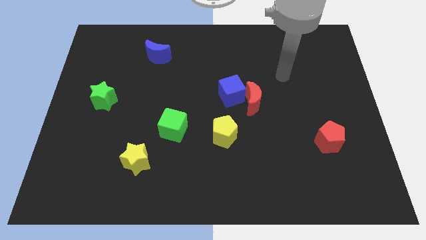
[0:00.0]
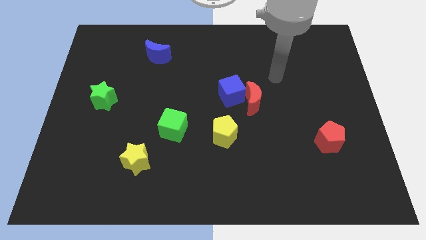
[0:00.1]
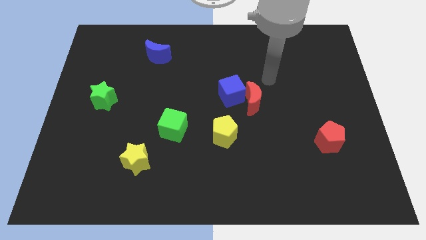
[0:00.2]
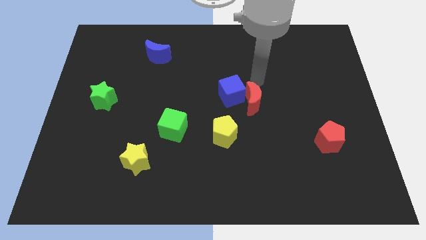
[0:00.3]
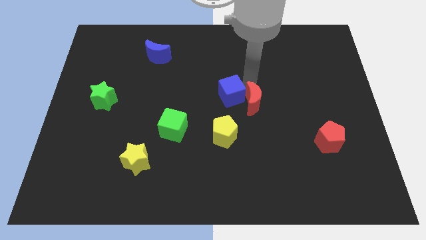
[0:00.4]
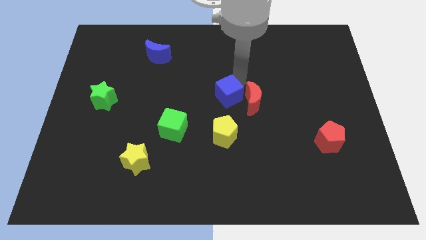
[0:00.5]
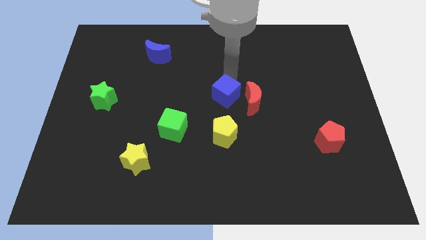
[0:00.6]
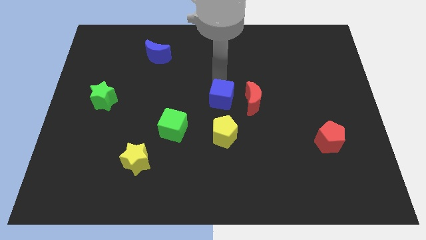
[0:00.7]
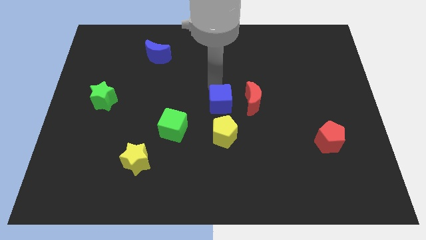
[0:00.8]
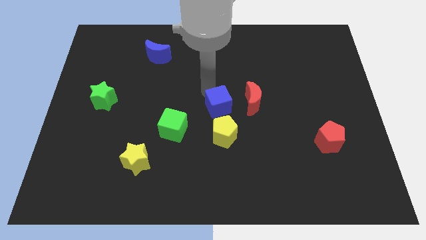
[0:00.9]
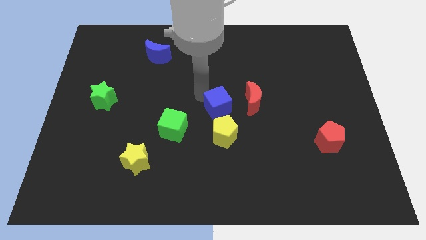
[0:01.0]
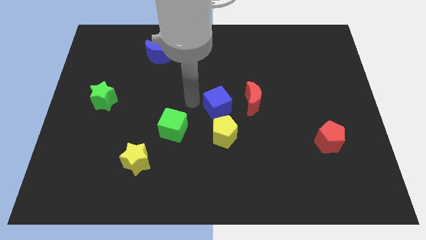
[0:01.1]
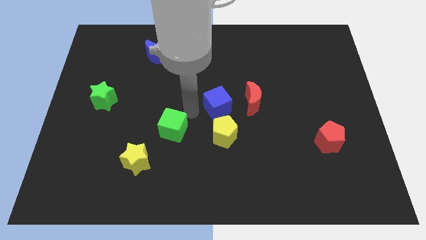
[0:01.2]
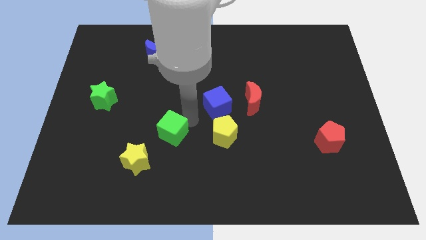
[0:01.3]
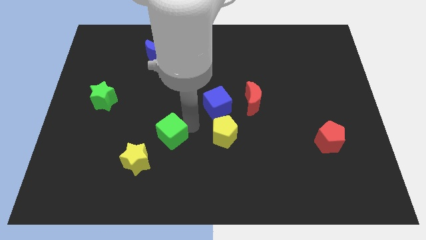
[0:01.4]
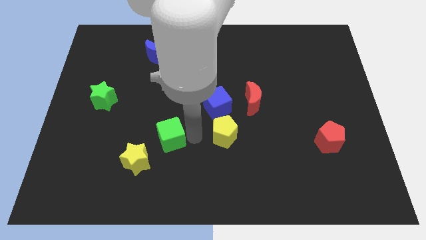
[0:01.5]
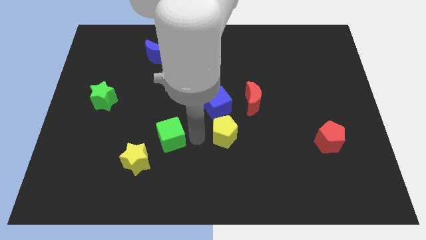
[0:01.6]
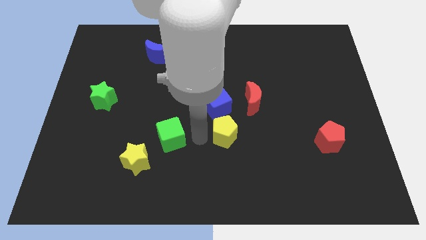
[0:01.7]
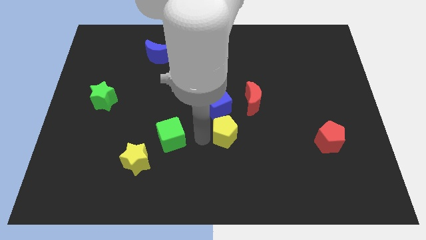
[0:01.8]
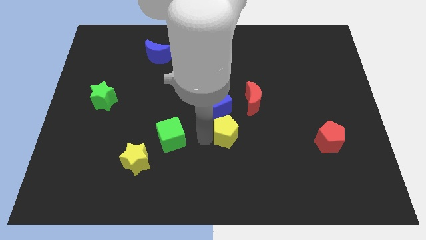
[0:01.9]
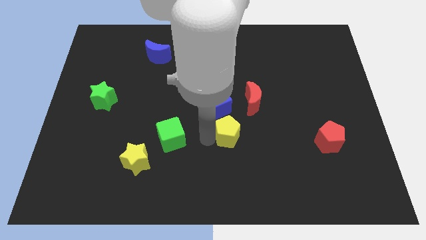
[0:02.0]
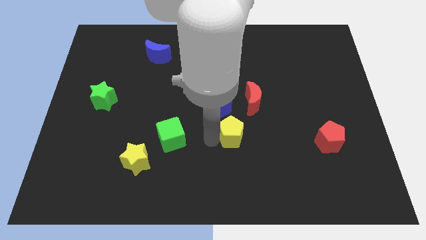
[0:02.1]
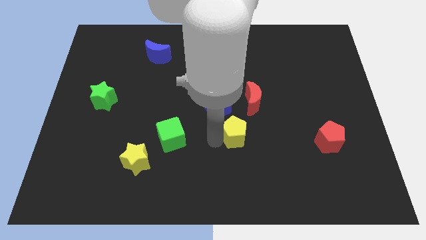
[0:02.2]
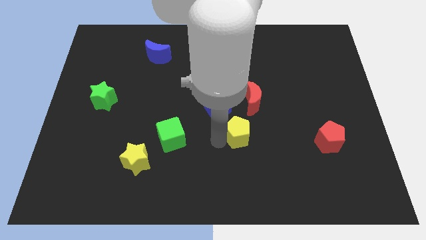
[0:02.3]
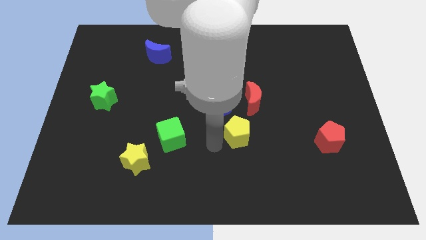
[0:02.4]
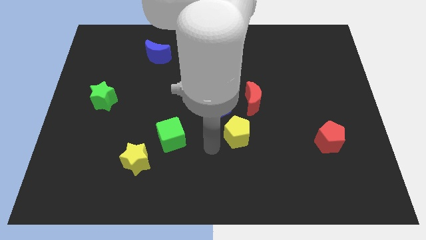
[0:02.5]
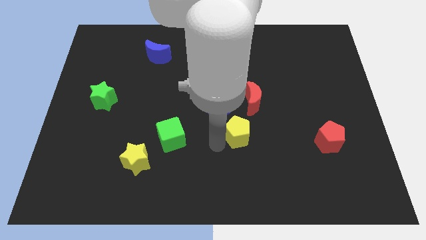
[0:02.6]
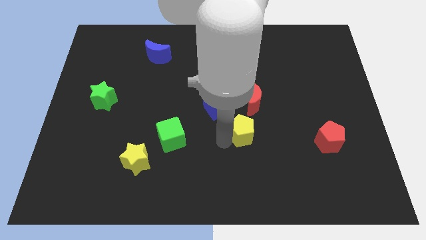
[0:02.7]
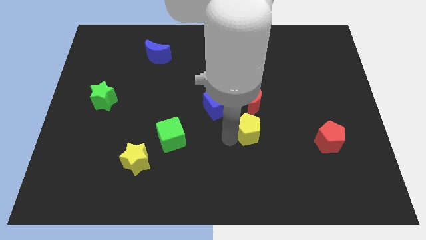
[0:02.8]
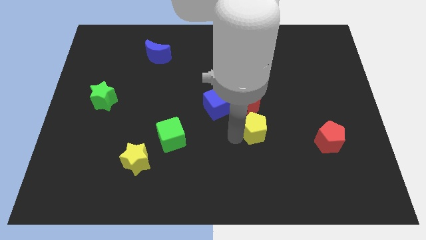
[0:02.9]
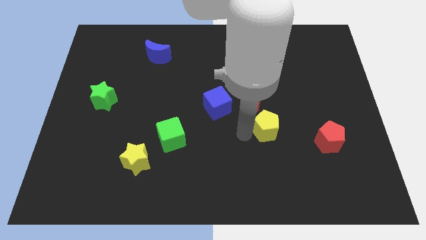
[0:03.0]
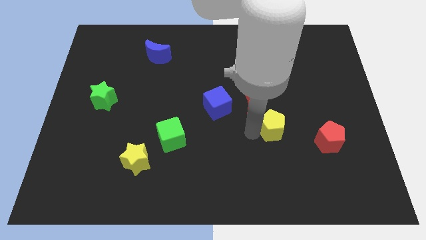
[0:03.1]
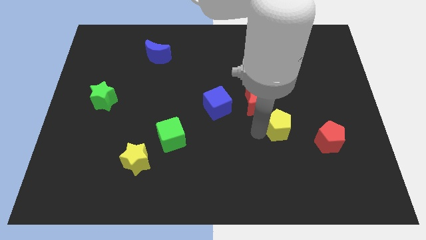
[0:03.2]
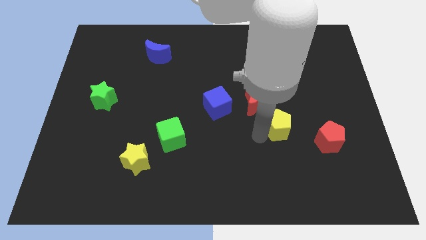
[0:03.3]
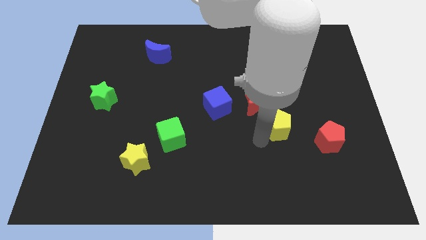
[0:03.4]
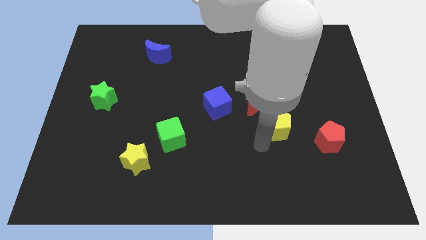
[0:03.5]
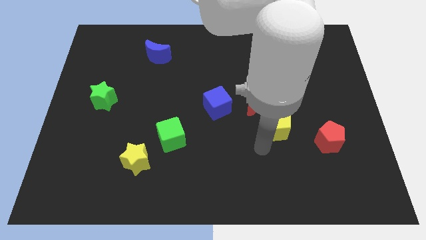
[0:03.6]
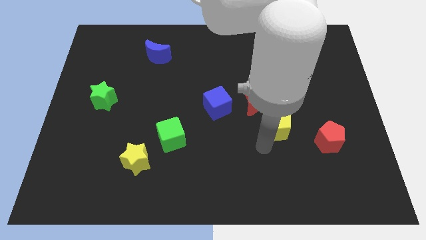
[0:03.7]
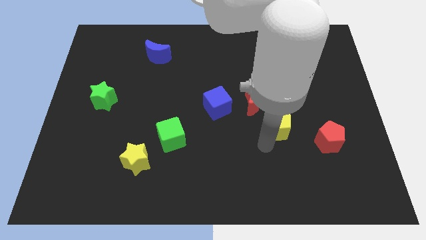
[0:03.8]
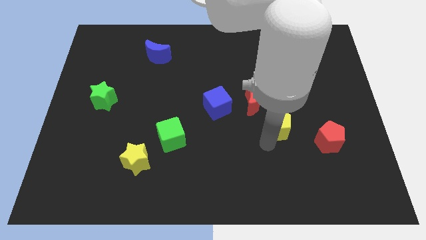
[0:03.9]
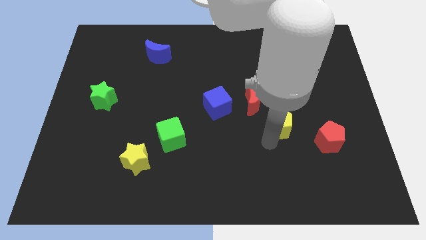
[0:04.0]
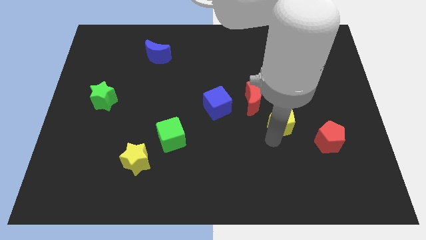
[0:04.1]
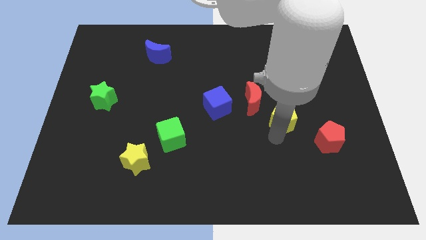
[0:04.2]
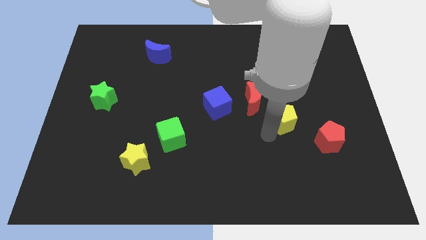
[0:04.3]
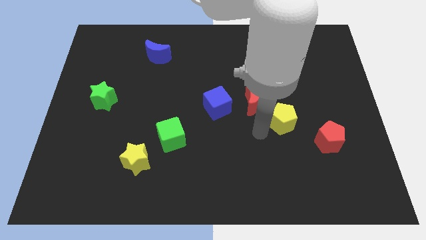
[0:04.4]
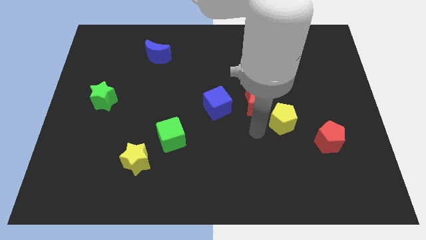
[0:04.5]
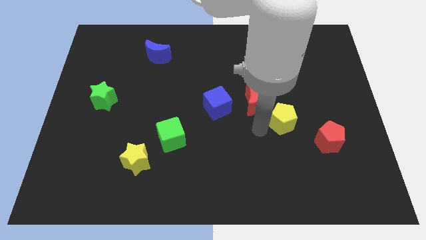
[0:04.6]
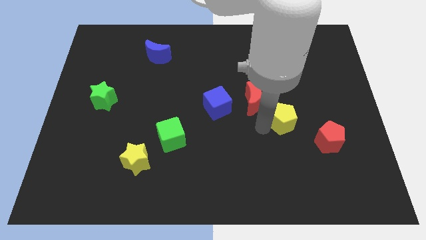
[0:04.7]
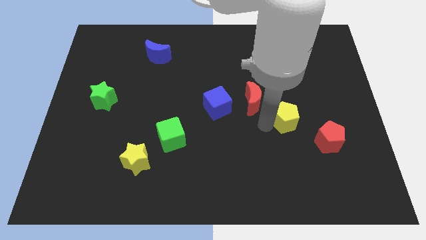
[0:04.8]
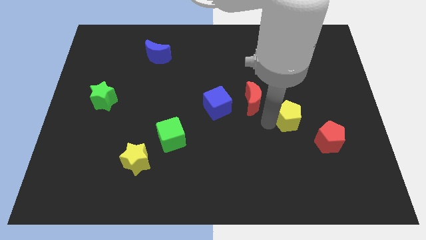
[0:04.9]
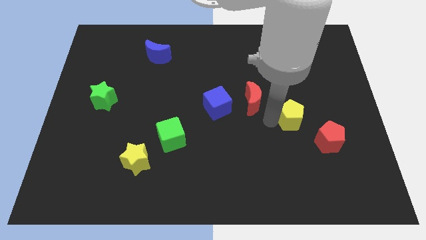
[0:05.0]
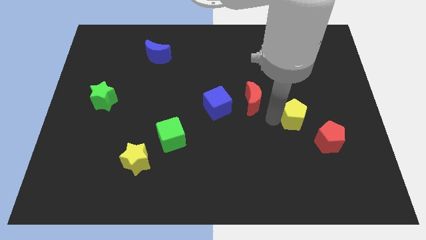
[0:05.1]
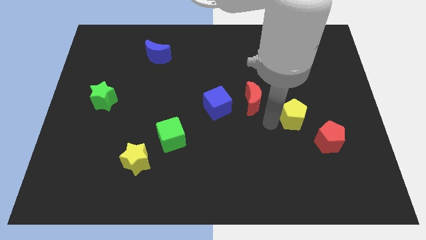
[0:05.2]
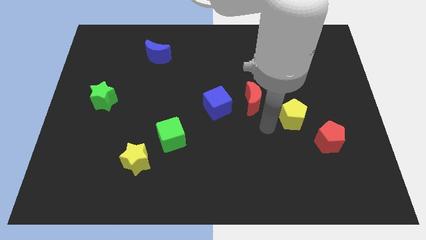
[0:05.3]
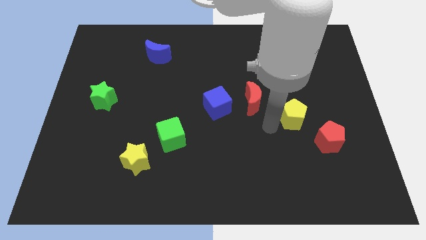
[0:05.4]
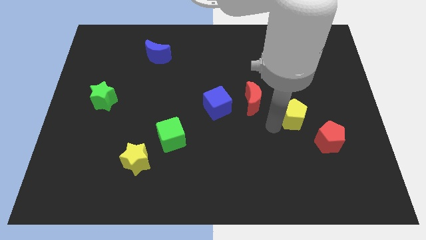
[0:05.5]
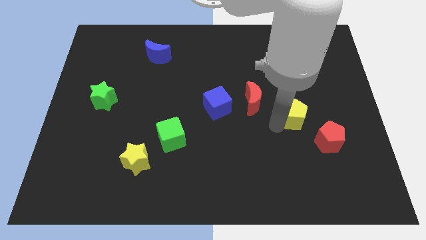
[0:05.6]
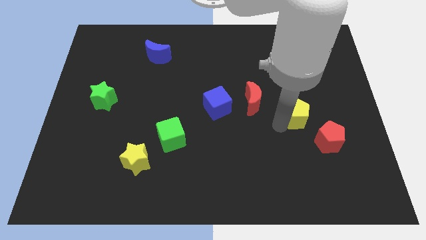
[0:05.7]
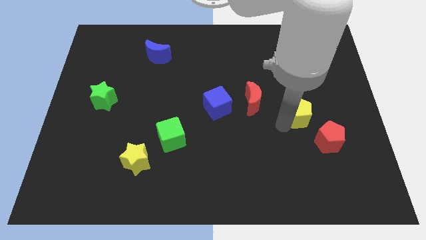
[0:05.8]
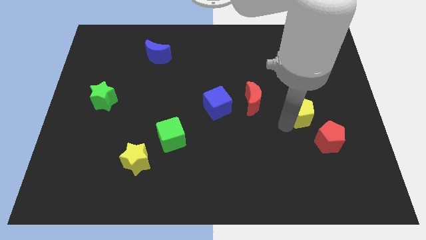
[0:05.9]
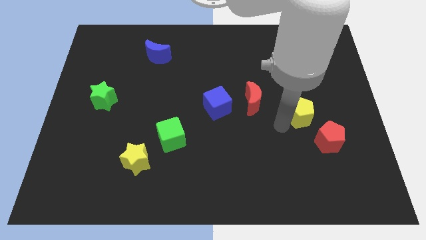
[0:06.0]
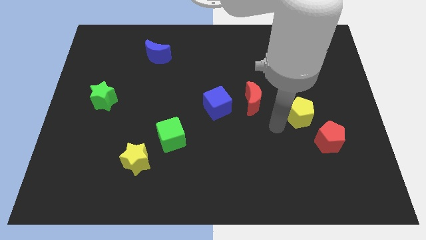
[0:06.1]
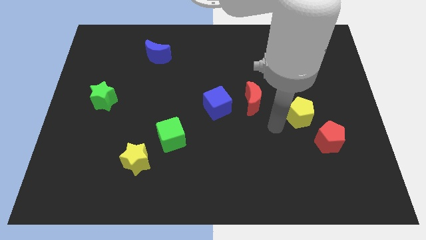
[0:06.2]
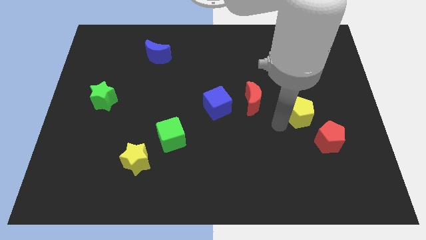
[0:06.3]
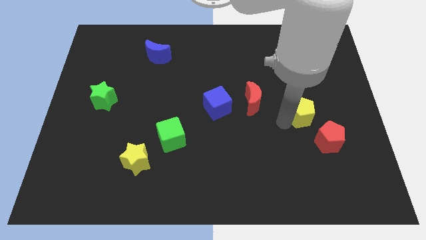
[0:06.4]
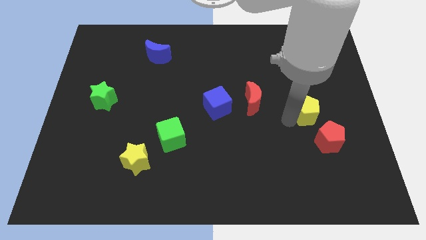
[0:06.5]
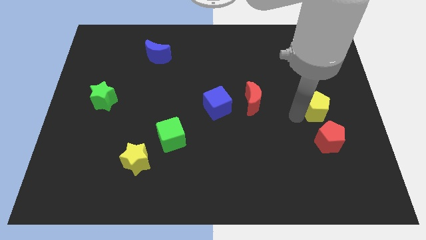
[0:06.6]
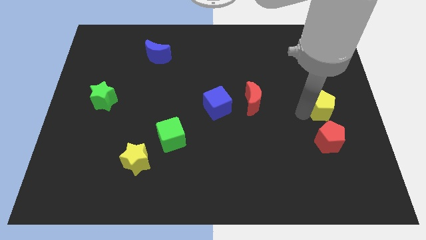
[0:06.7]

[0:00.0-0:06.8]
push the yellow pentagon to the right side
